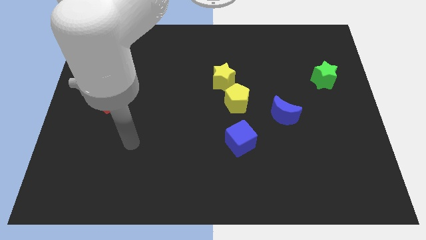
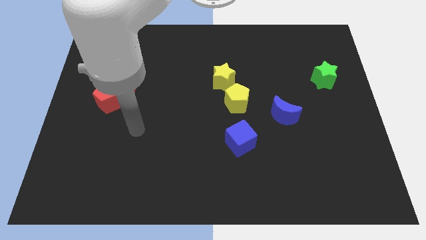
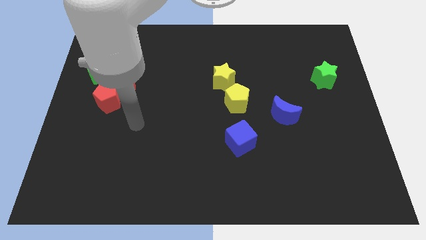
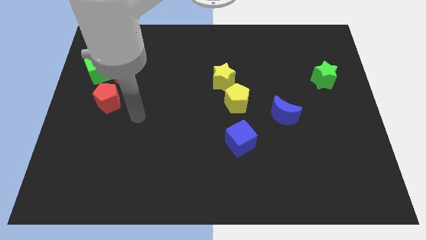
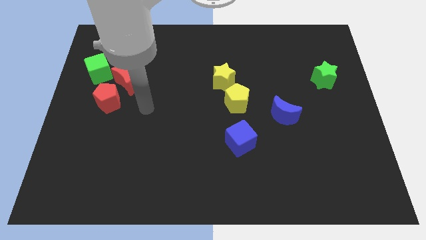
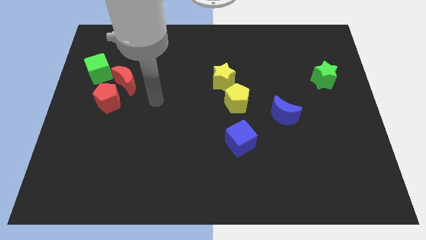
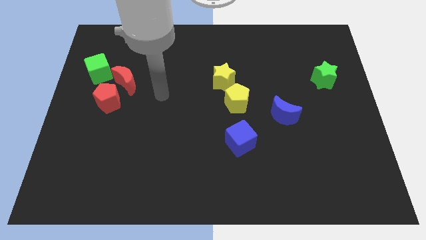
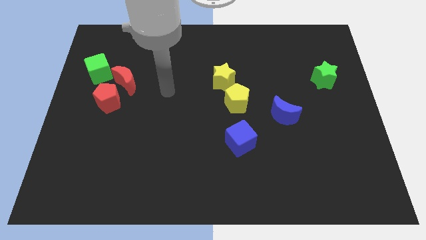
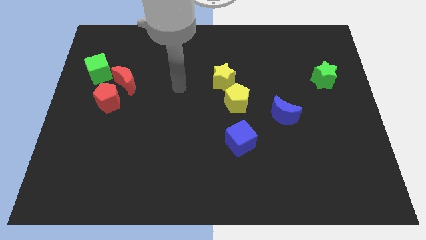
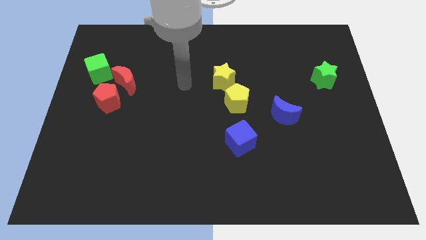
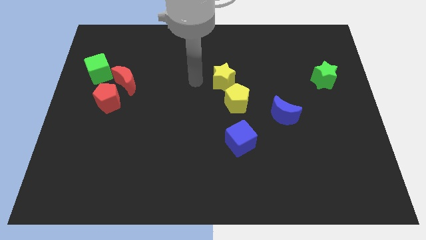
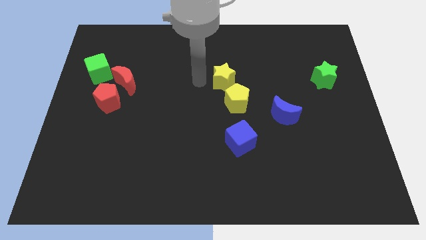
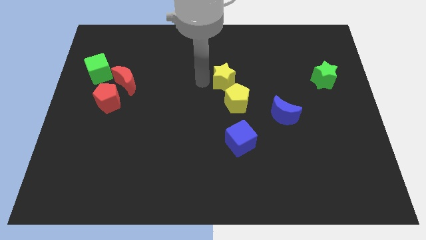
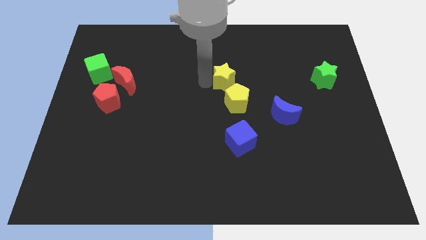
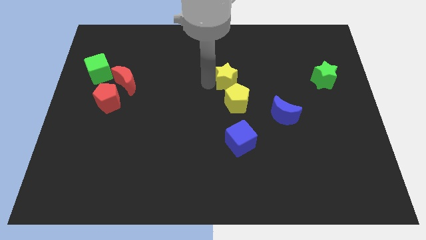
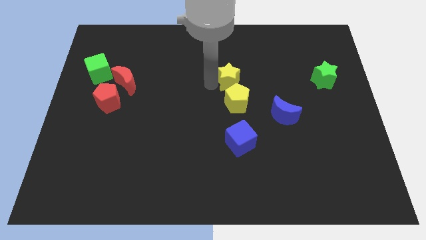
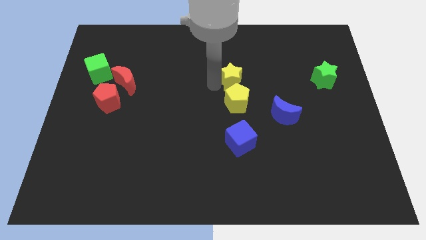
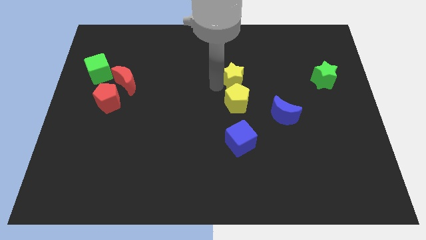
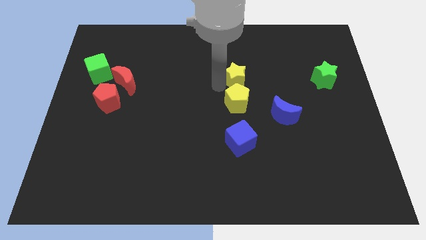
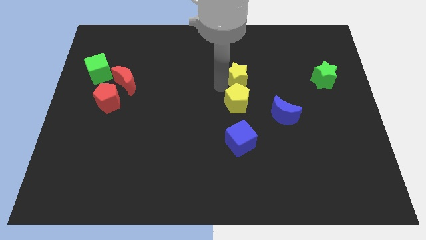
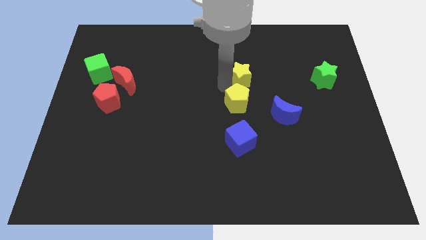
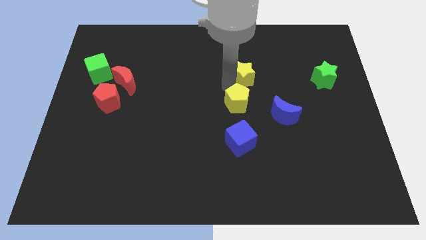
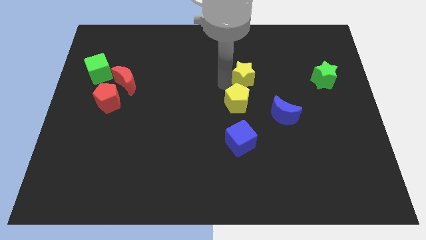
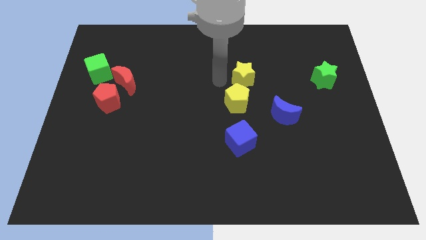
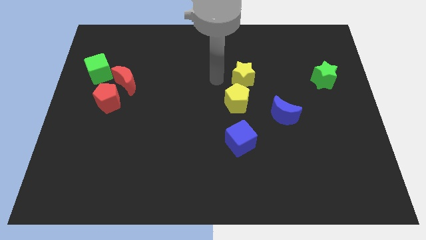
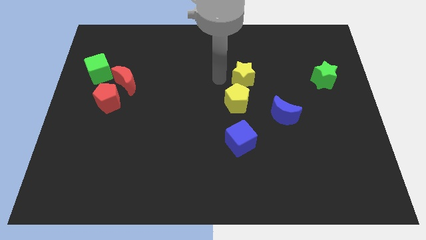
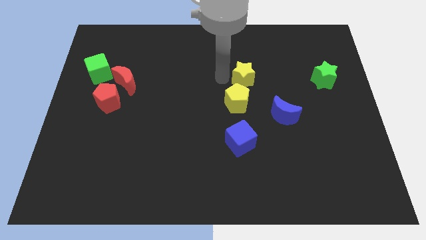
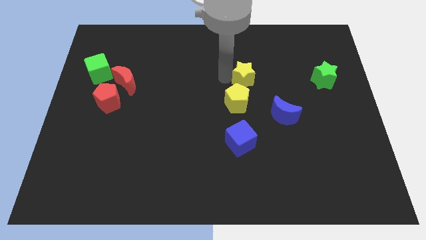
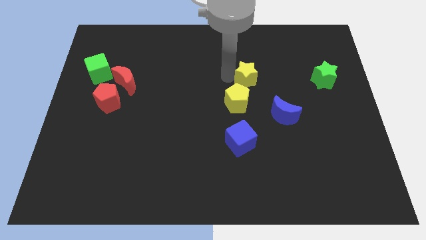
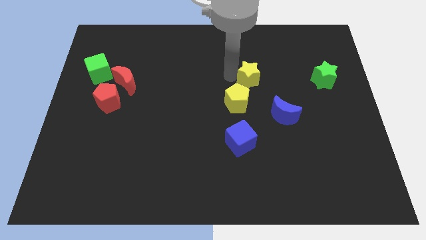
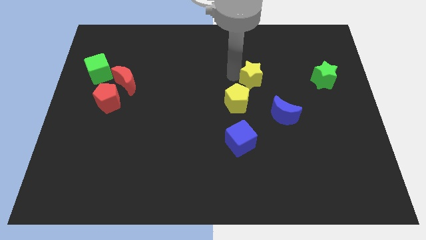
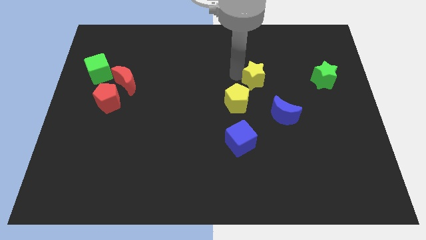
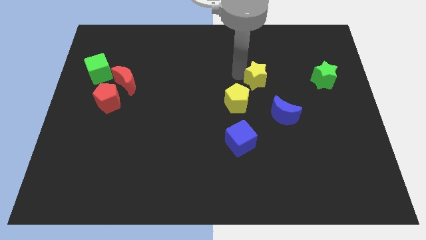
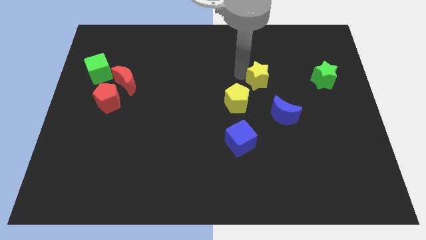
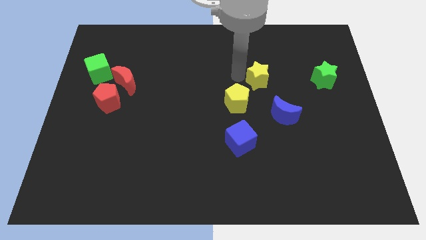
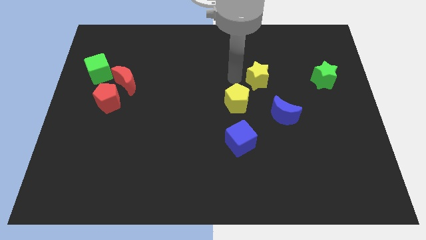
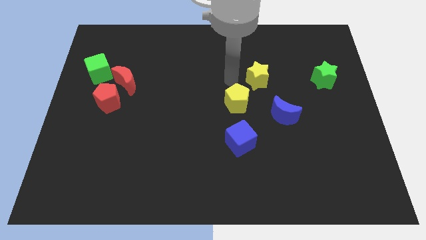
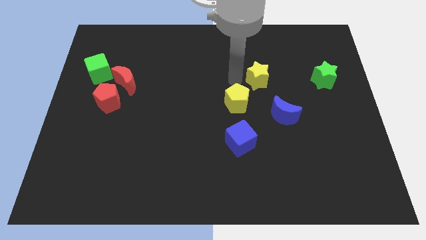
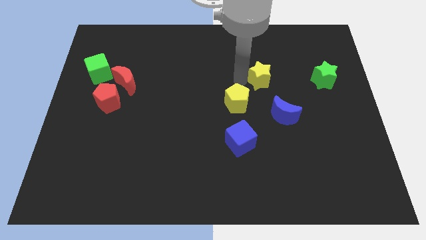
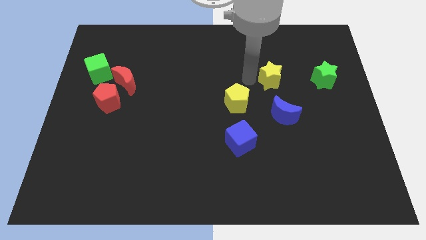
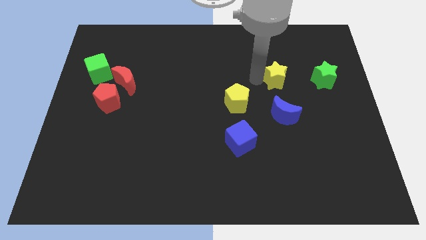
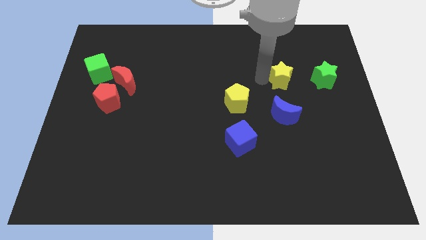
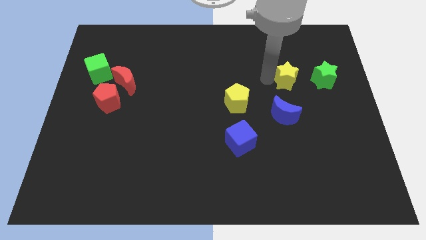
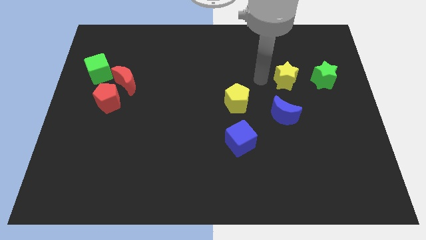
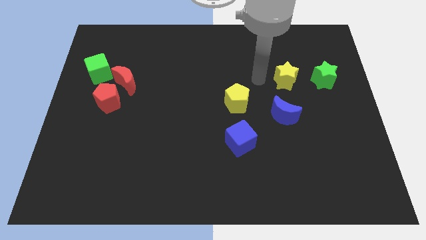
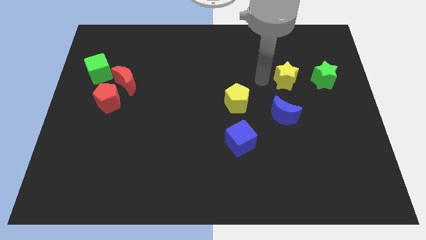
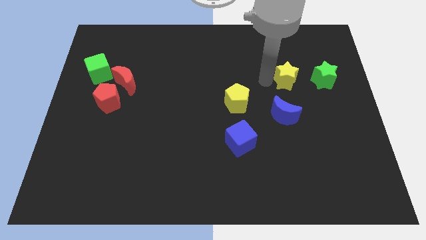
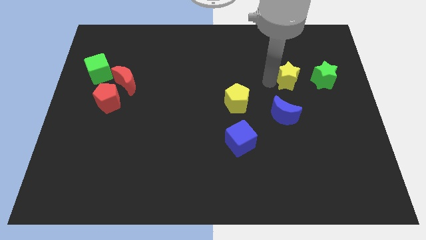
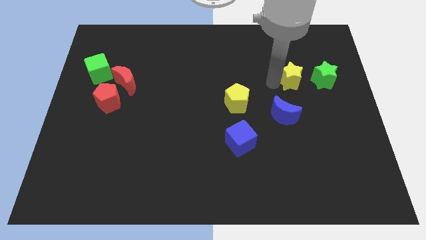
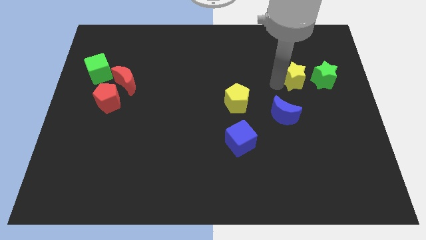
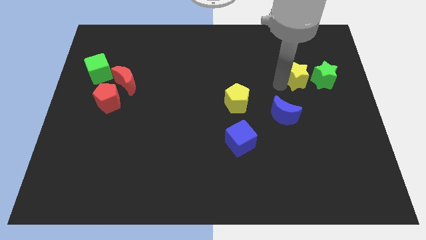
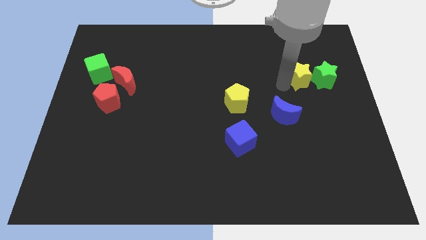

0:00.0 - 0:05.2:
move the yellow star next to the green star

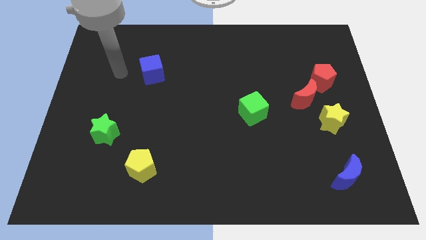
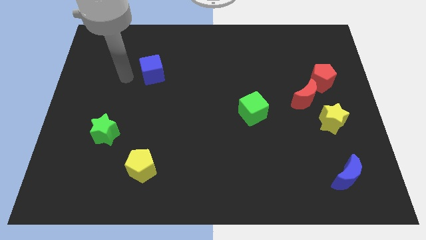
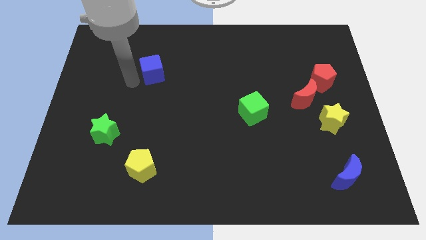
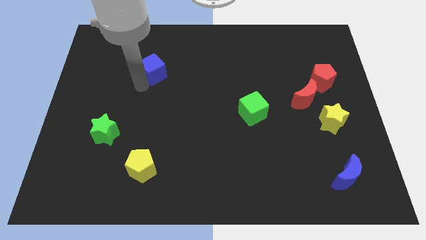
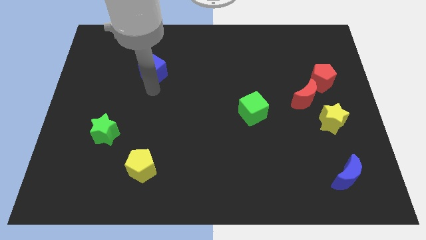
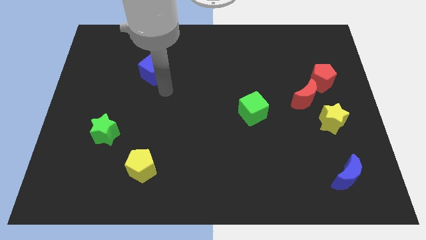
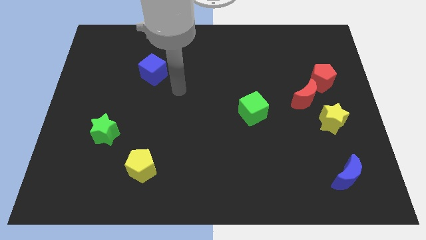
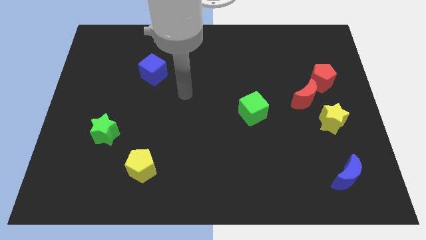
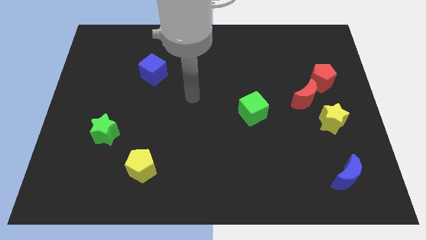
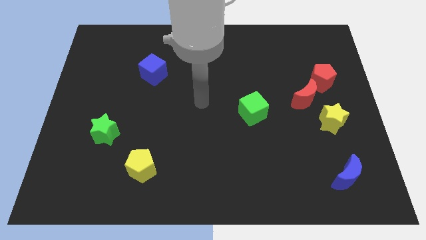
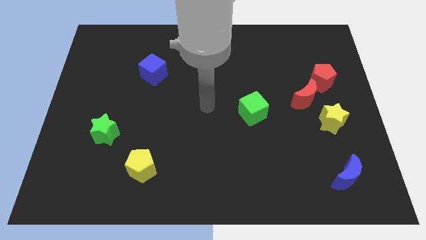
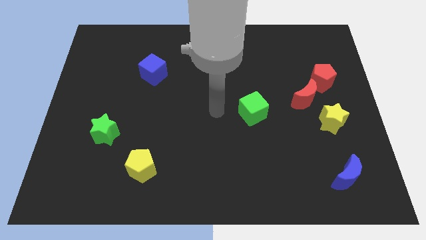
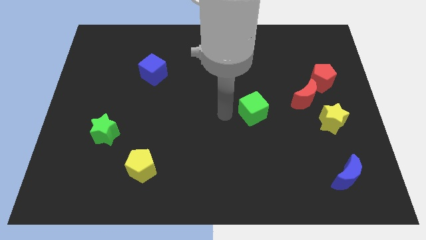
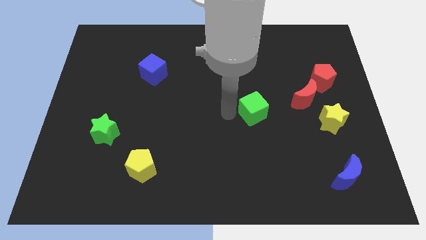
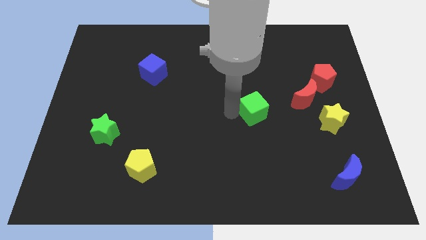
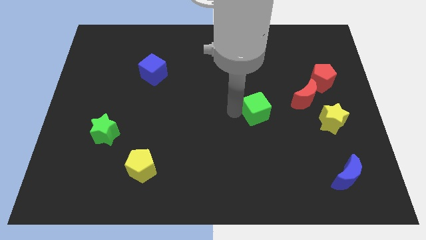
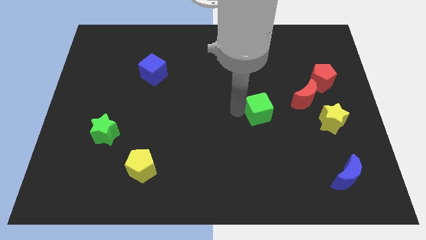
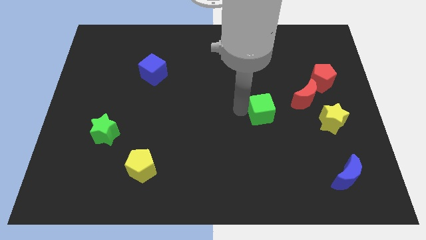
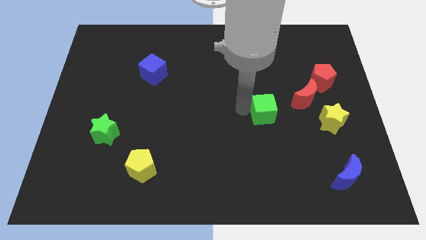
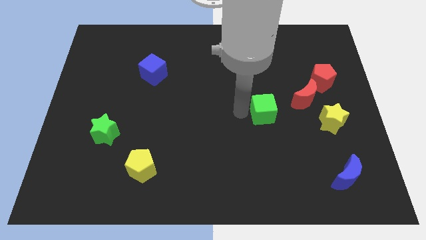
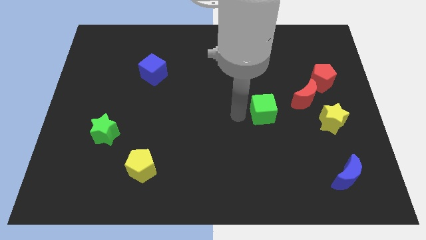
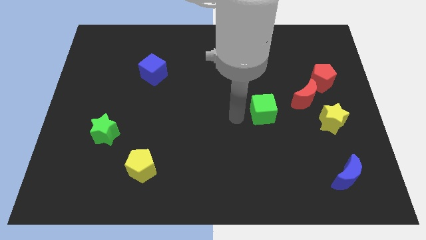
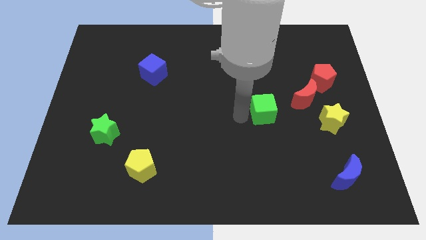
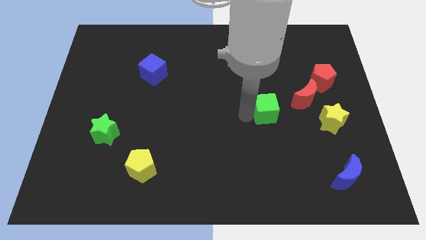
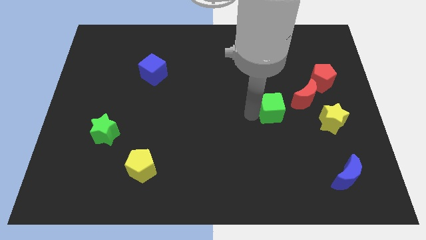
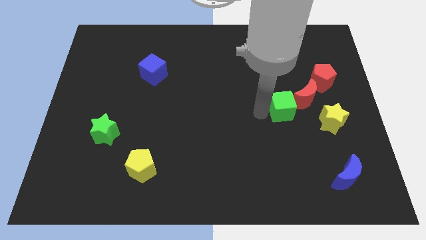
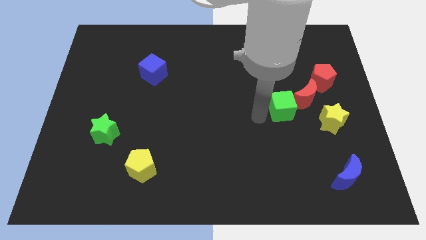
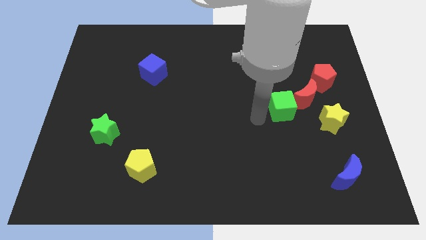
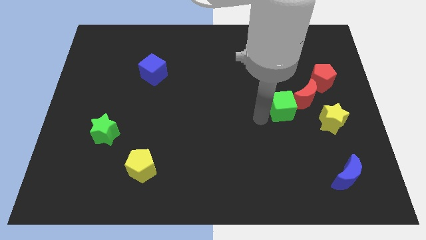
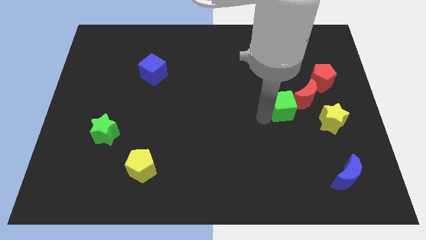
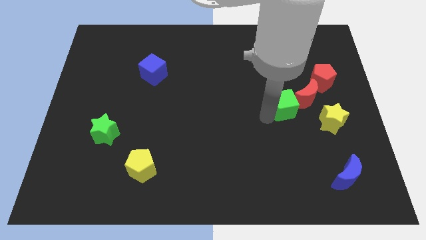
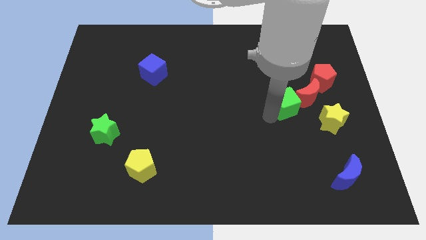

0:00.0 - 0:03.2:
slide the green cube next to the red moon

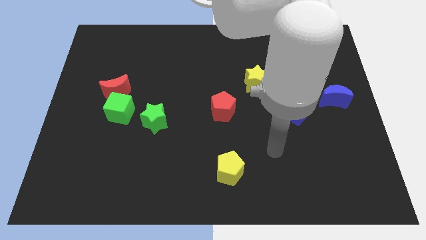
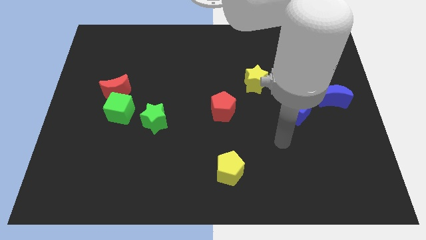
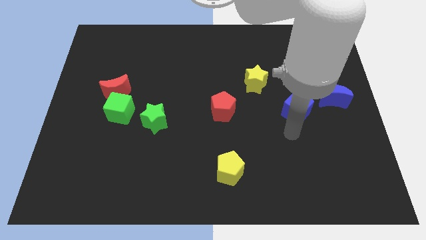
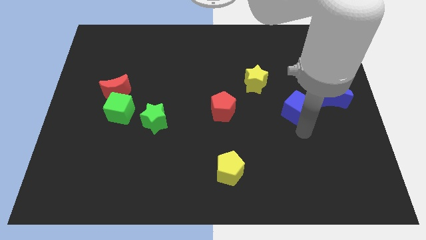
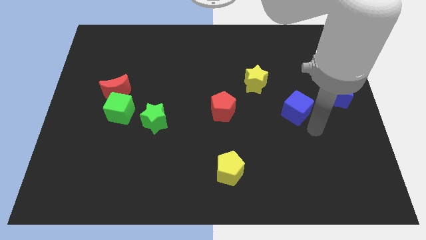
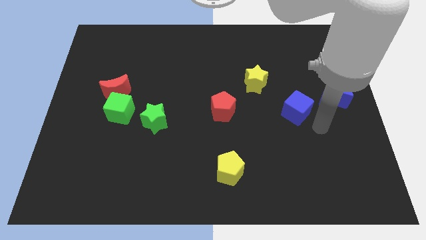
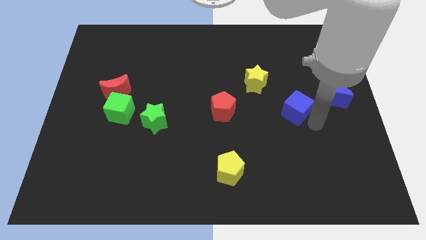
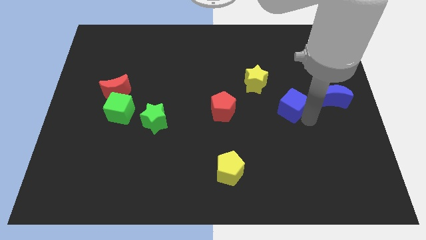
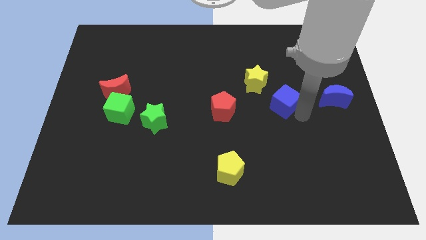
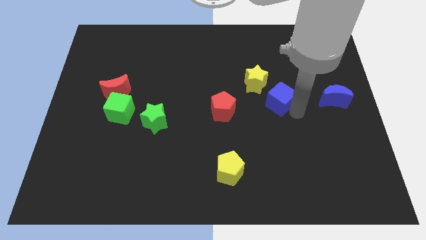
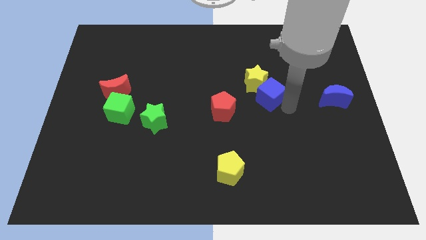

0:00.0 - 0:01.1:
put the blue cube to the yellow star
